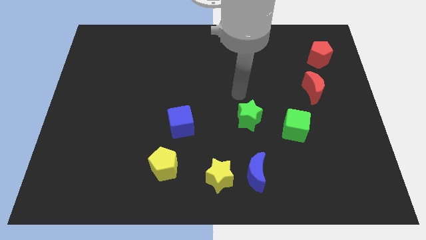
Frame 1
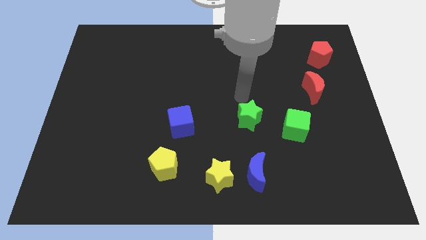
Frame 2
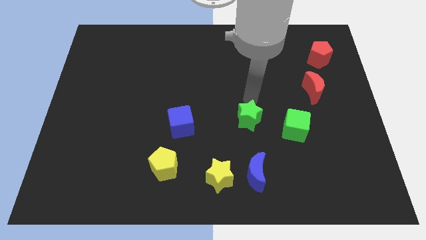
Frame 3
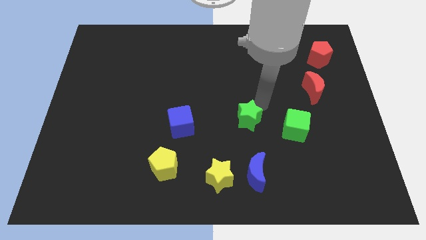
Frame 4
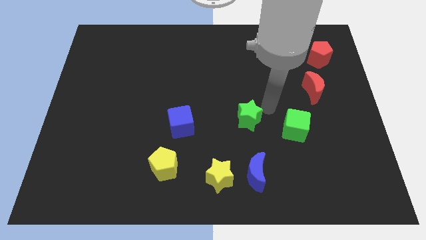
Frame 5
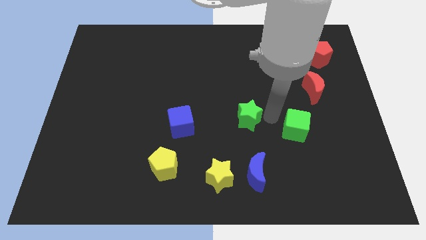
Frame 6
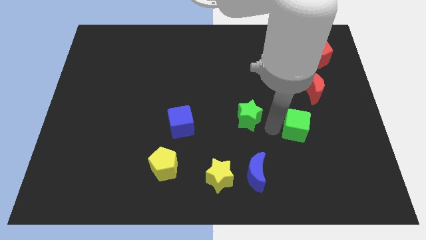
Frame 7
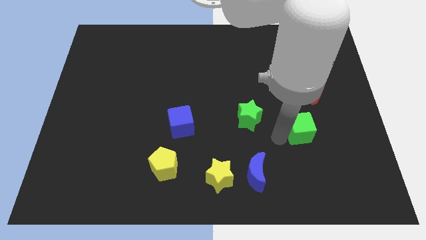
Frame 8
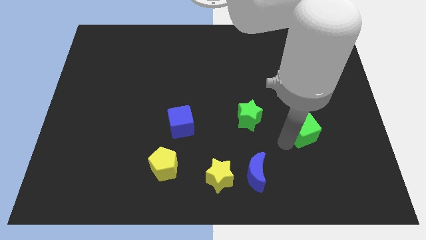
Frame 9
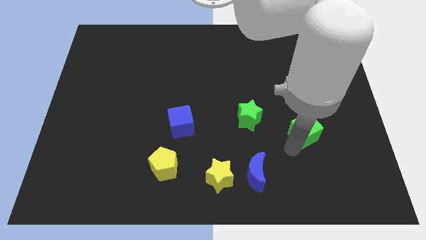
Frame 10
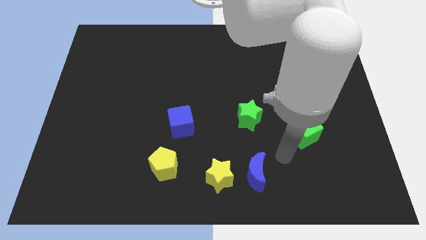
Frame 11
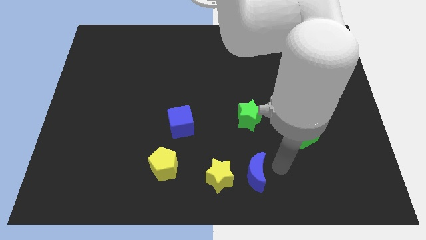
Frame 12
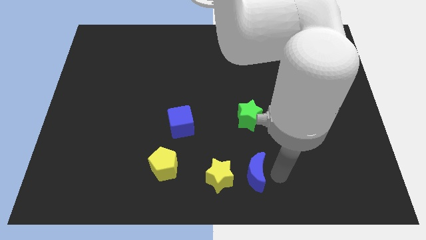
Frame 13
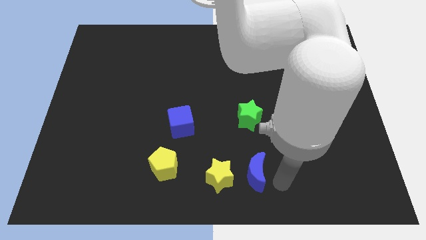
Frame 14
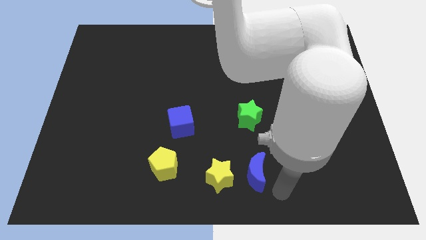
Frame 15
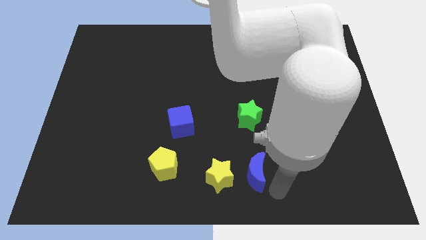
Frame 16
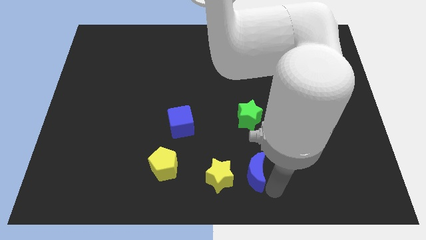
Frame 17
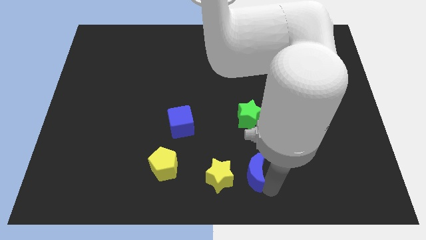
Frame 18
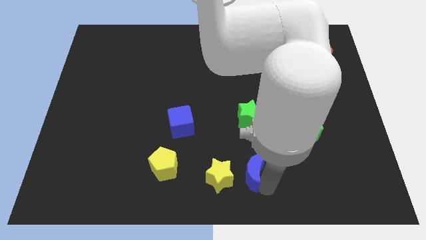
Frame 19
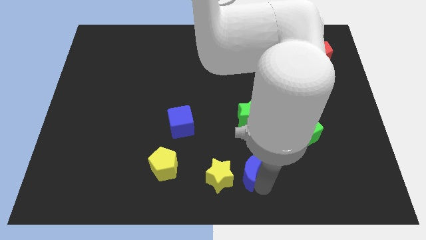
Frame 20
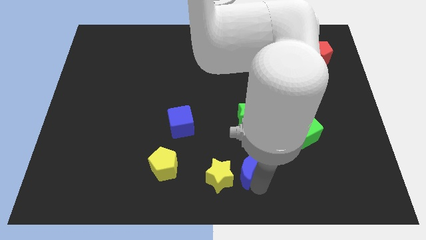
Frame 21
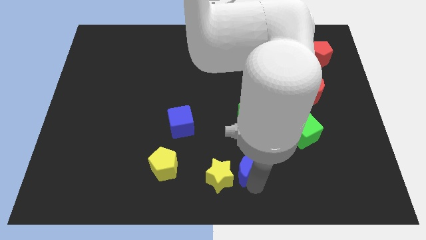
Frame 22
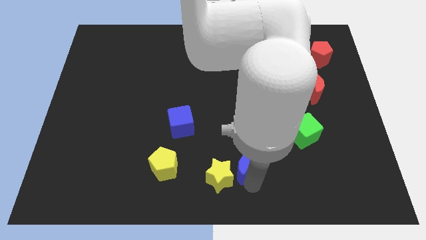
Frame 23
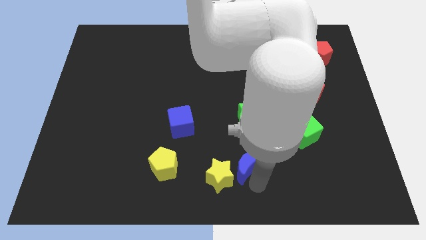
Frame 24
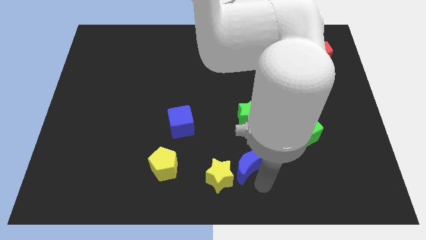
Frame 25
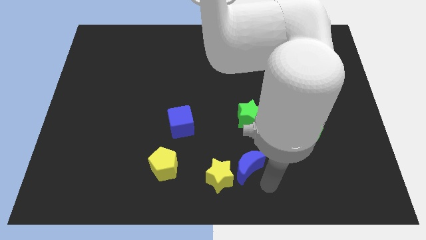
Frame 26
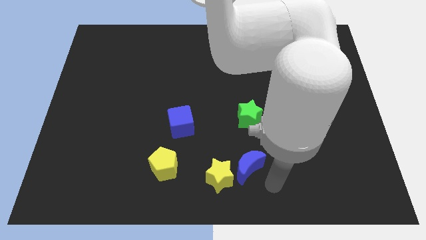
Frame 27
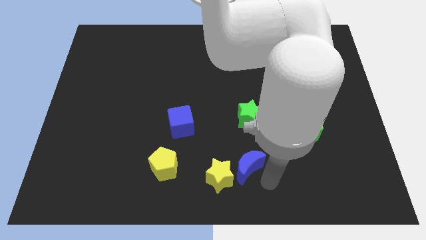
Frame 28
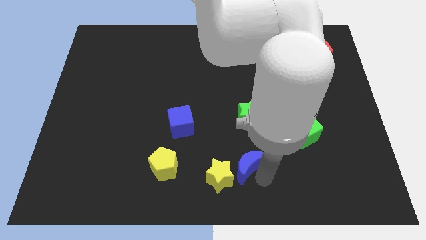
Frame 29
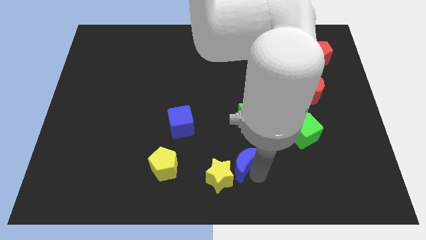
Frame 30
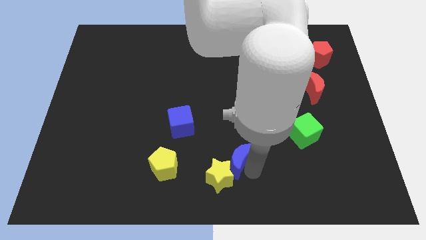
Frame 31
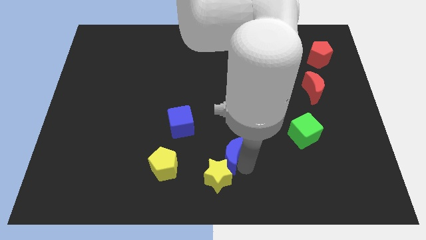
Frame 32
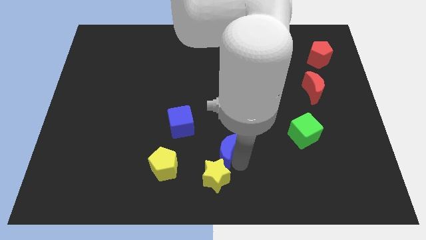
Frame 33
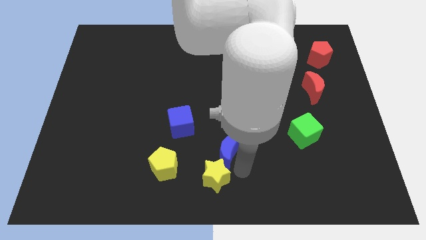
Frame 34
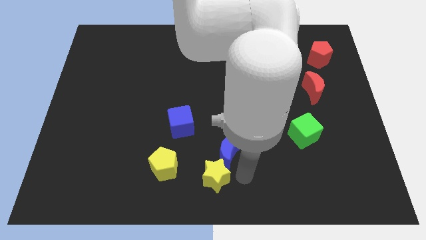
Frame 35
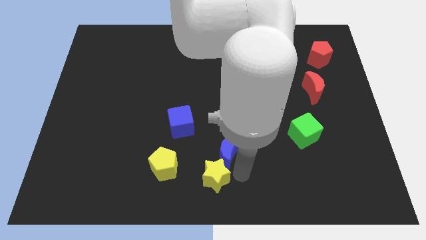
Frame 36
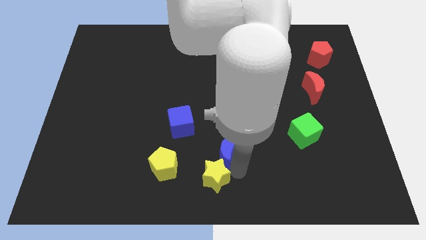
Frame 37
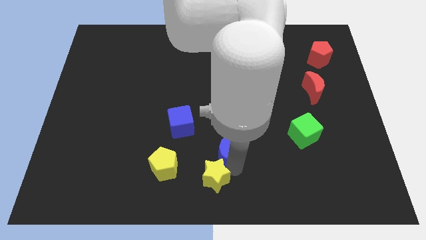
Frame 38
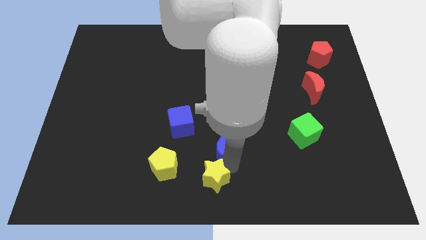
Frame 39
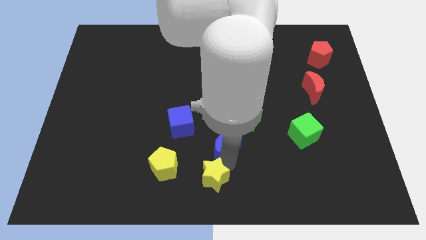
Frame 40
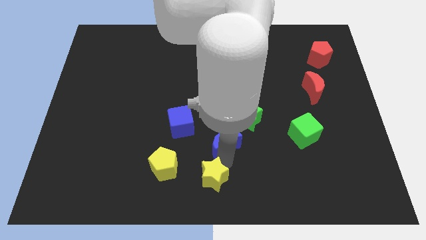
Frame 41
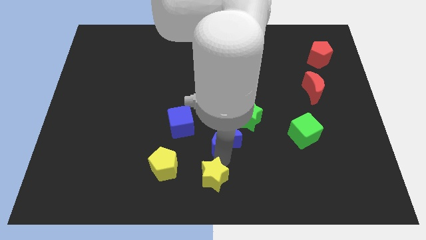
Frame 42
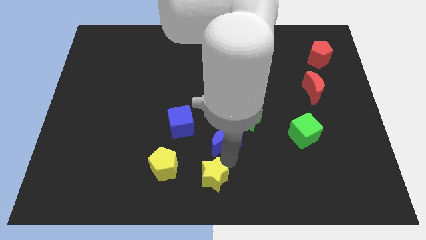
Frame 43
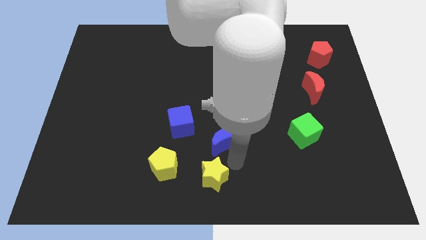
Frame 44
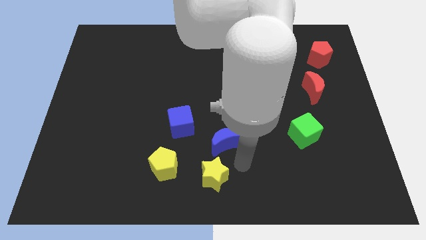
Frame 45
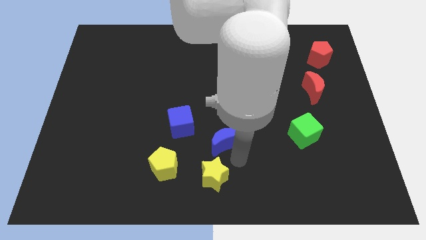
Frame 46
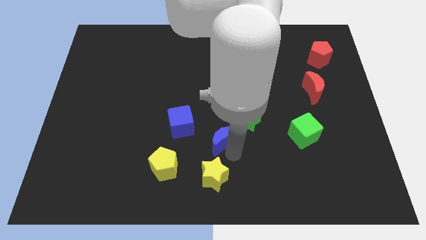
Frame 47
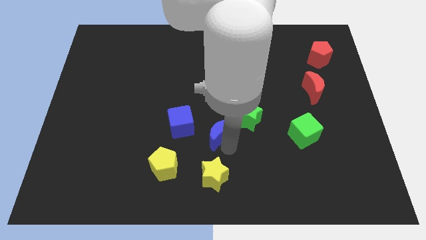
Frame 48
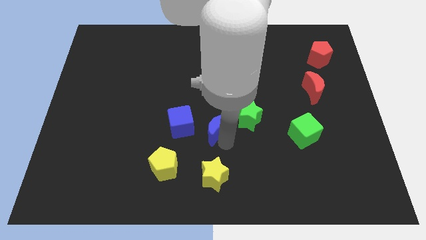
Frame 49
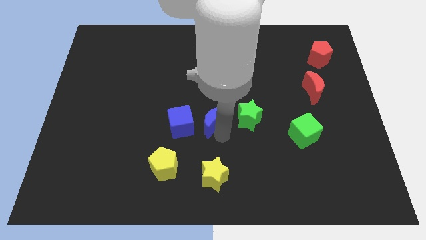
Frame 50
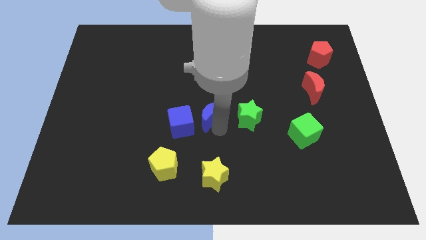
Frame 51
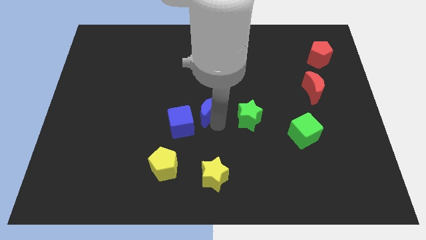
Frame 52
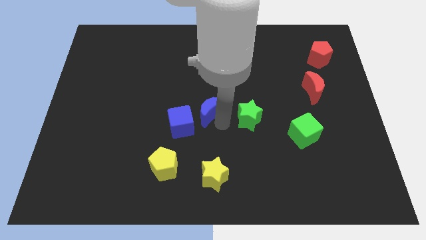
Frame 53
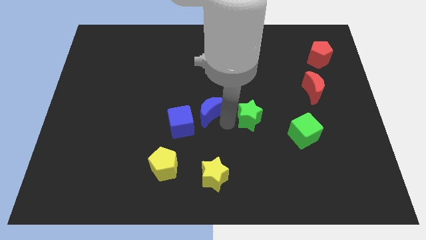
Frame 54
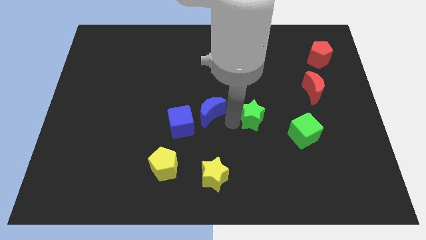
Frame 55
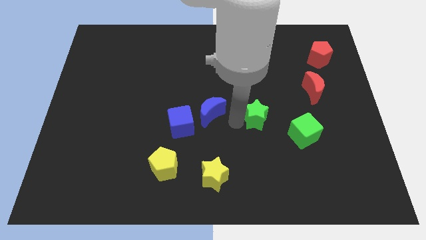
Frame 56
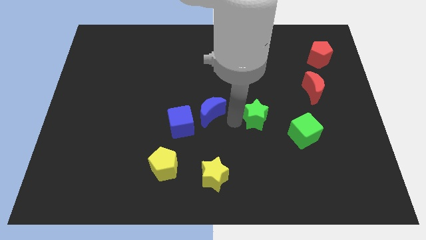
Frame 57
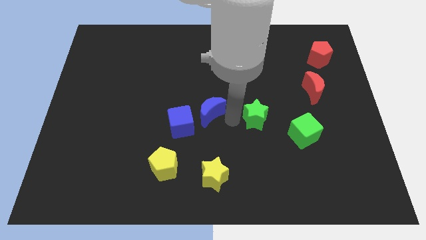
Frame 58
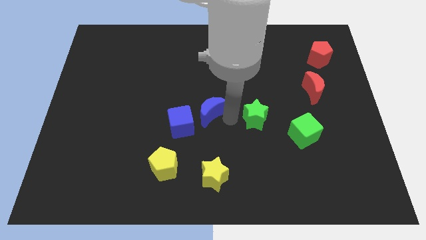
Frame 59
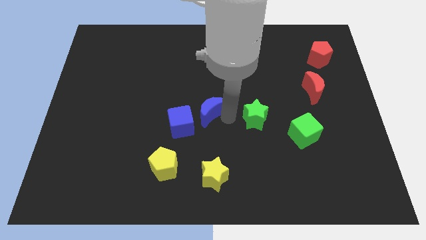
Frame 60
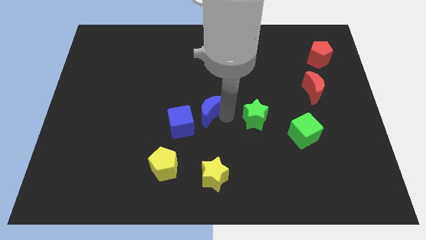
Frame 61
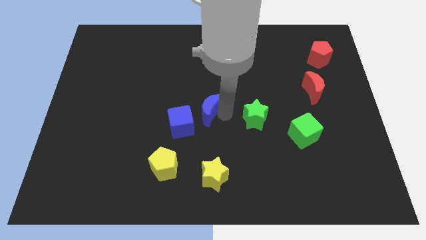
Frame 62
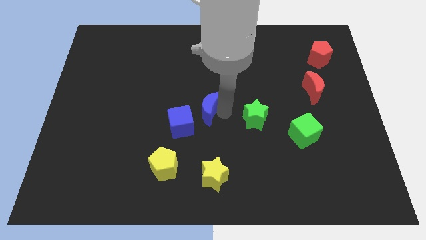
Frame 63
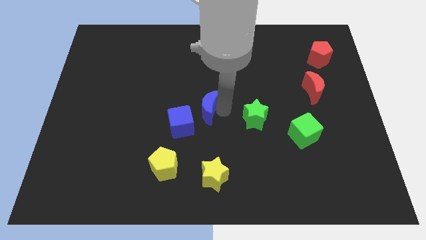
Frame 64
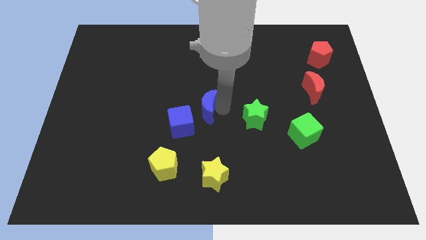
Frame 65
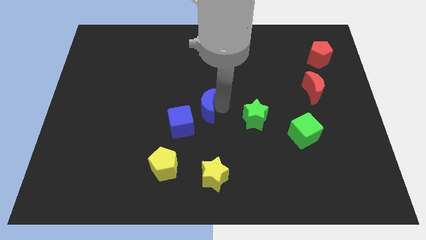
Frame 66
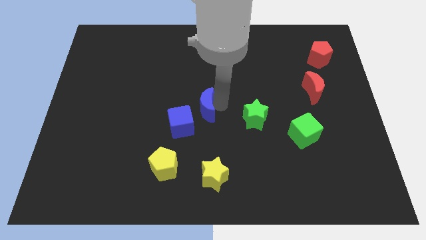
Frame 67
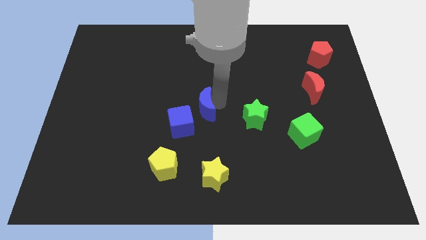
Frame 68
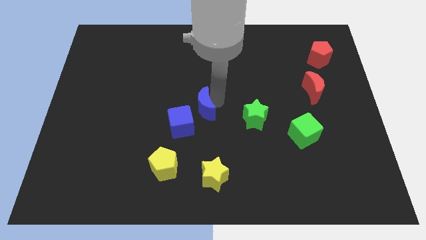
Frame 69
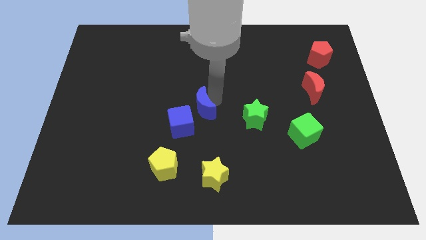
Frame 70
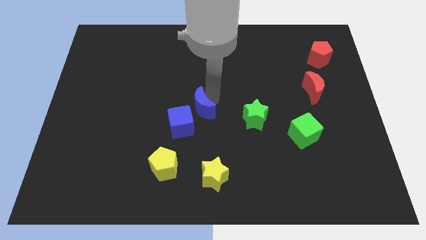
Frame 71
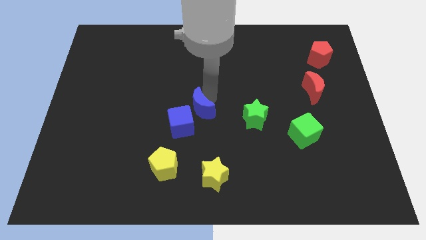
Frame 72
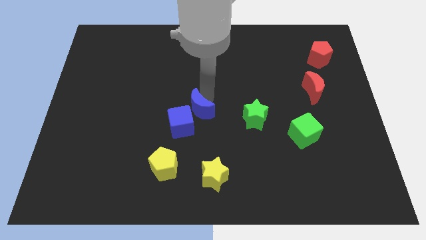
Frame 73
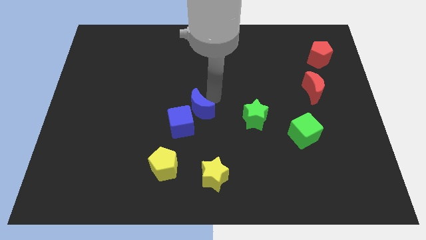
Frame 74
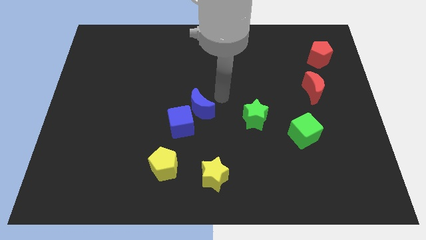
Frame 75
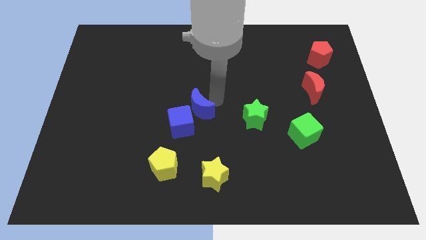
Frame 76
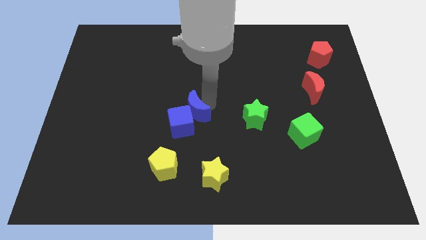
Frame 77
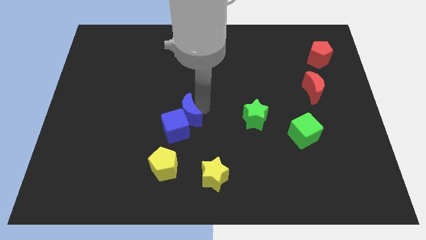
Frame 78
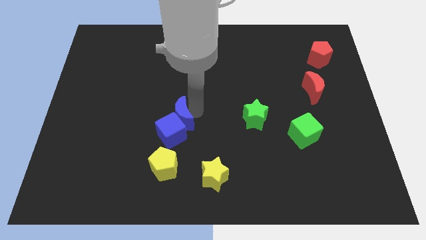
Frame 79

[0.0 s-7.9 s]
push the blue moon above the yellow pentagon
